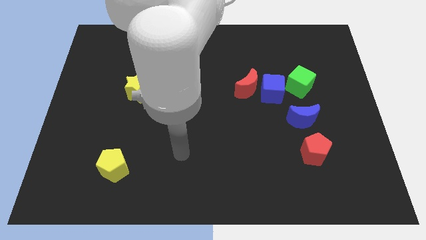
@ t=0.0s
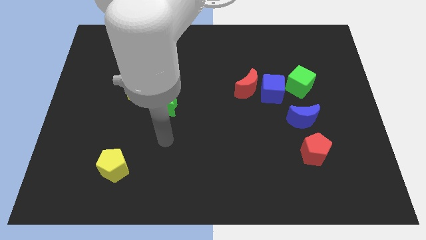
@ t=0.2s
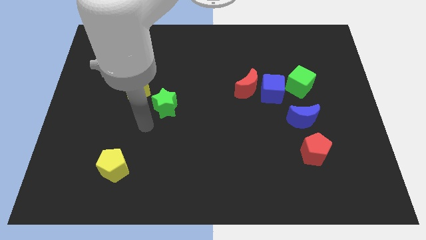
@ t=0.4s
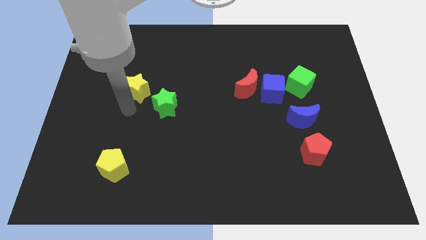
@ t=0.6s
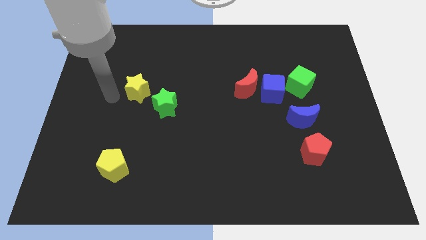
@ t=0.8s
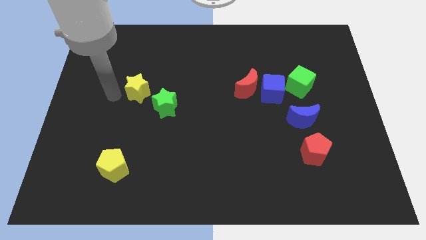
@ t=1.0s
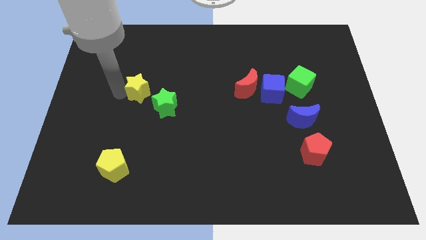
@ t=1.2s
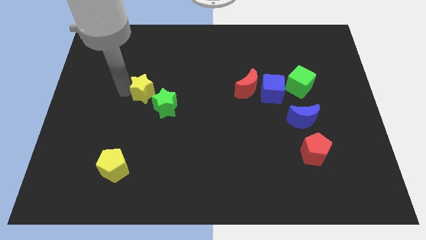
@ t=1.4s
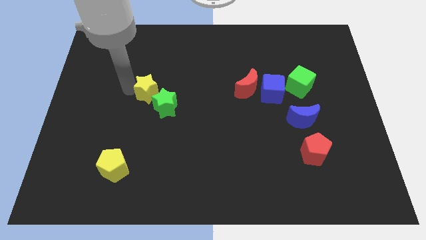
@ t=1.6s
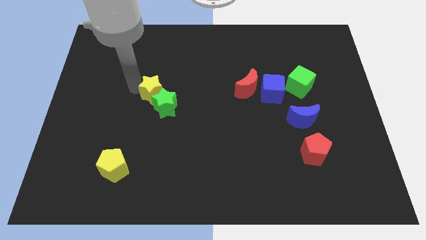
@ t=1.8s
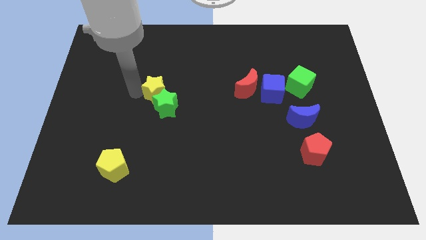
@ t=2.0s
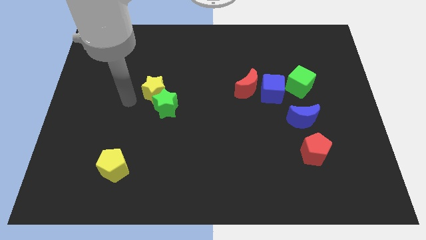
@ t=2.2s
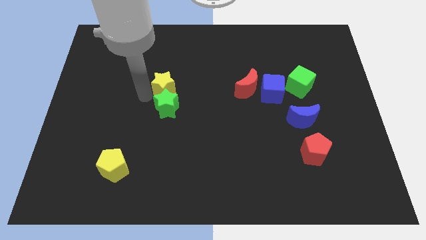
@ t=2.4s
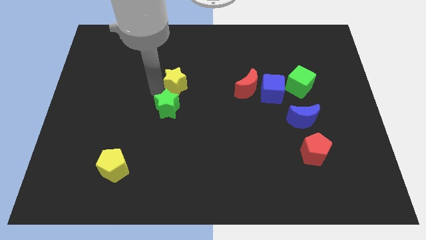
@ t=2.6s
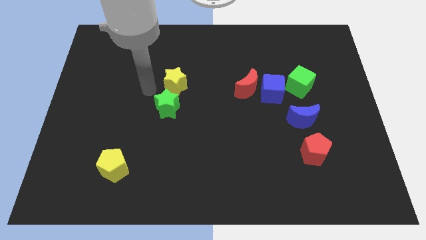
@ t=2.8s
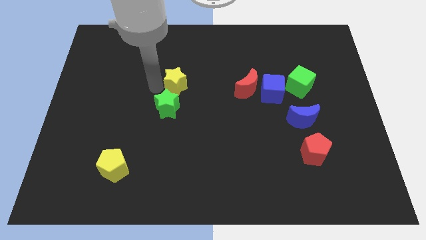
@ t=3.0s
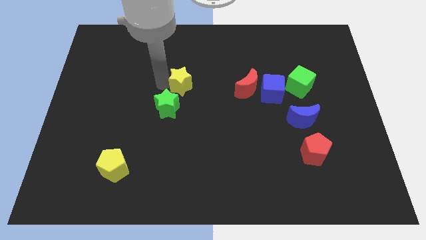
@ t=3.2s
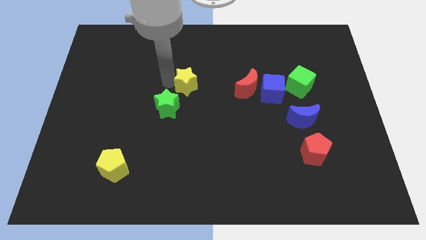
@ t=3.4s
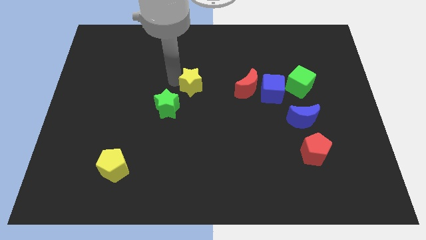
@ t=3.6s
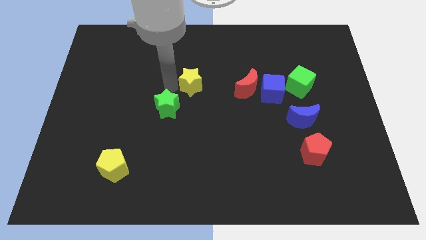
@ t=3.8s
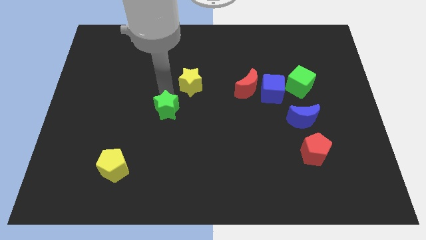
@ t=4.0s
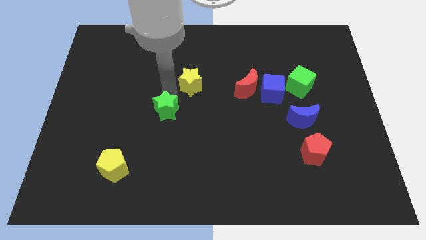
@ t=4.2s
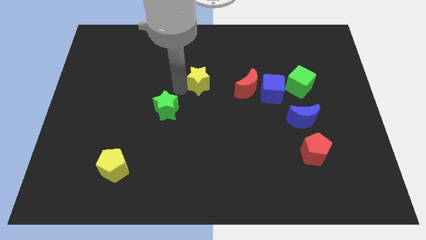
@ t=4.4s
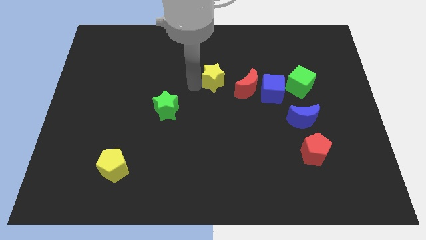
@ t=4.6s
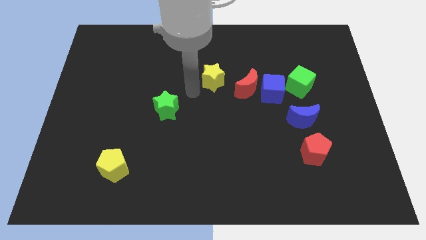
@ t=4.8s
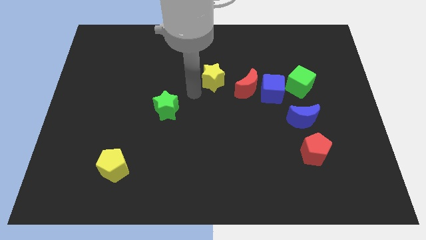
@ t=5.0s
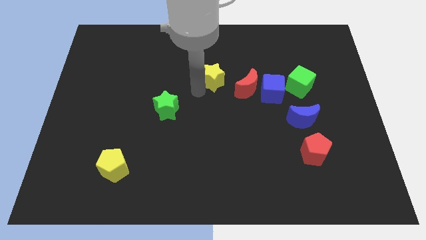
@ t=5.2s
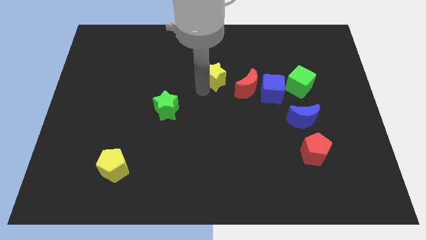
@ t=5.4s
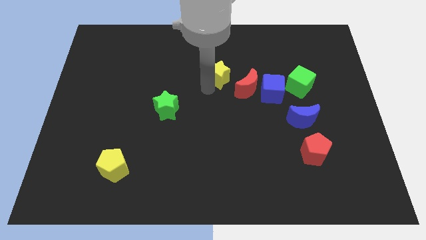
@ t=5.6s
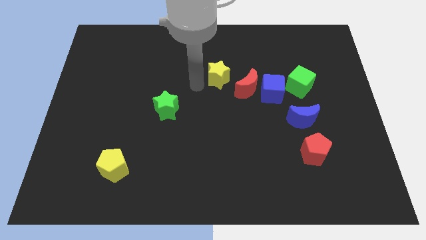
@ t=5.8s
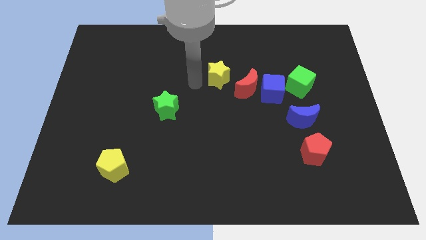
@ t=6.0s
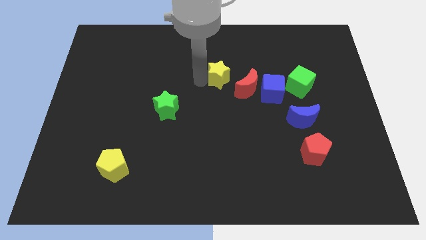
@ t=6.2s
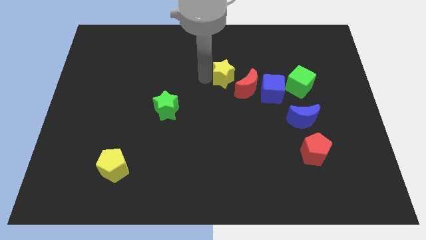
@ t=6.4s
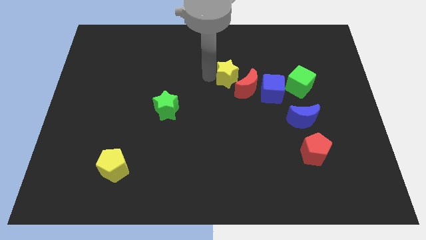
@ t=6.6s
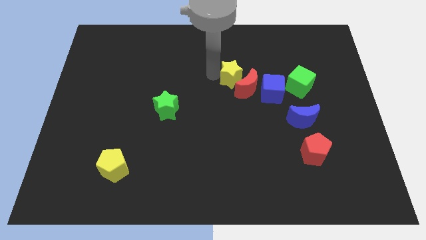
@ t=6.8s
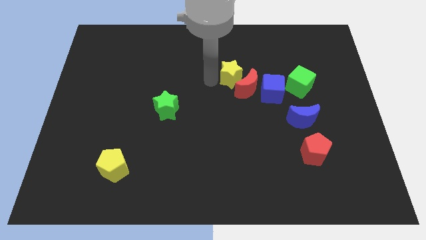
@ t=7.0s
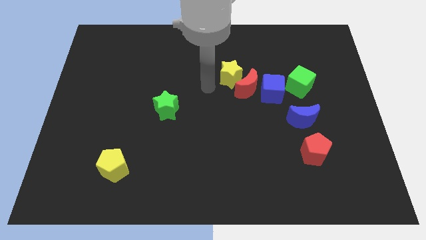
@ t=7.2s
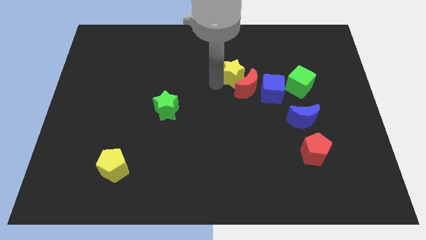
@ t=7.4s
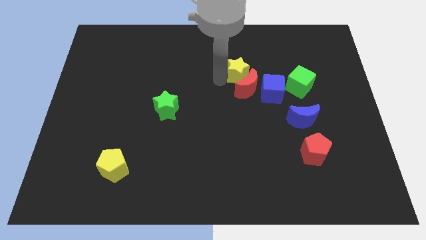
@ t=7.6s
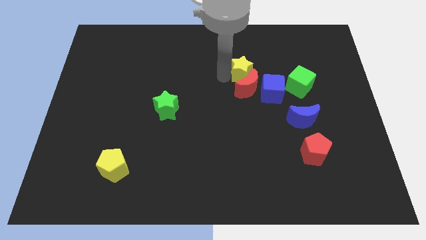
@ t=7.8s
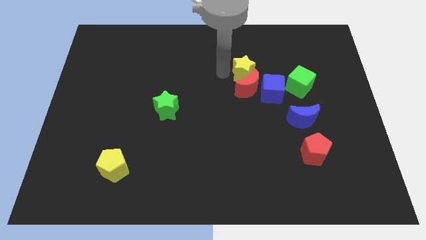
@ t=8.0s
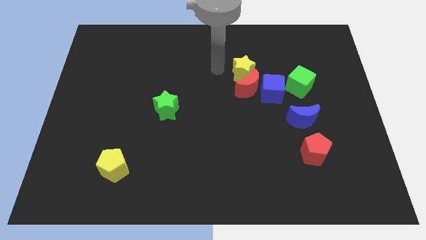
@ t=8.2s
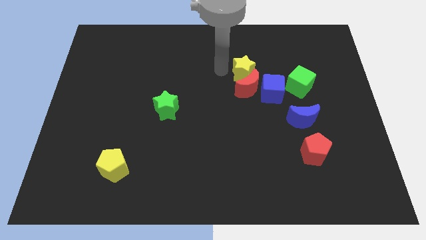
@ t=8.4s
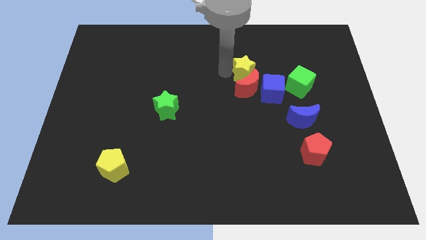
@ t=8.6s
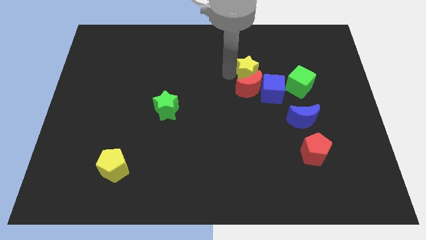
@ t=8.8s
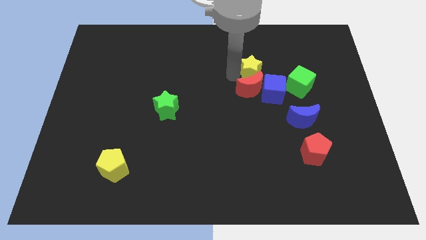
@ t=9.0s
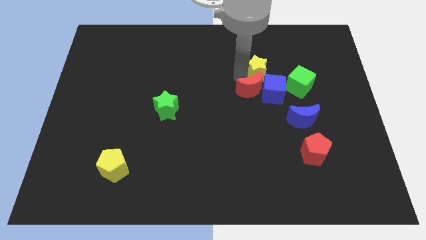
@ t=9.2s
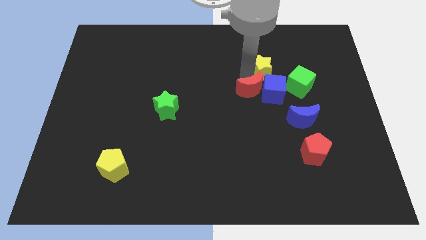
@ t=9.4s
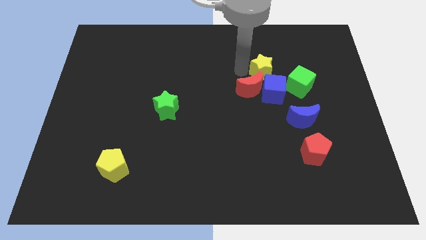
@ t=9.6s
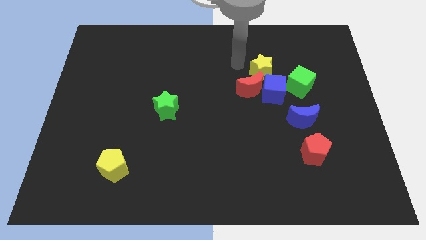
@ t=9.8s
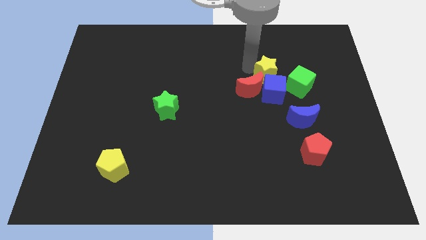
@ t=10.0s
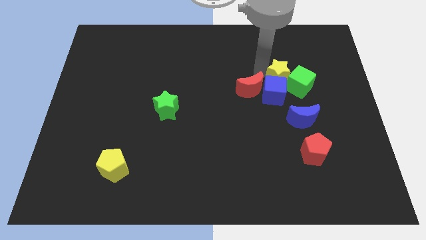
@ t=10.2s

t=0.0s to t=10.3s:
put the yellow star towards the green cube

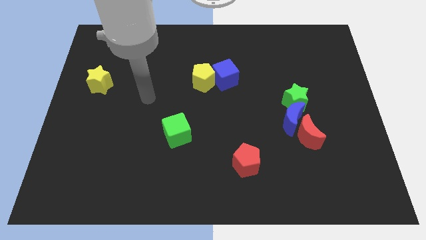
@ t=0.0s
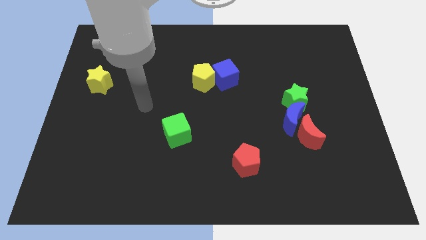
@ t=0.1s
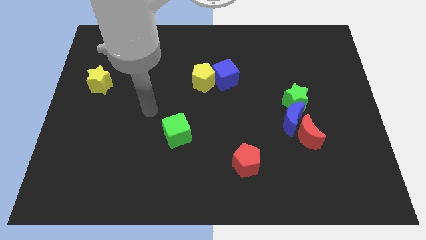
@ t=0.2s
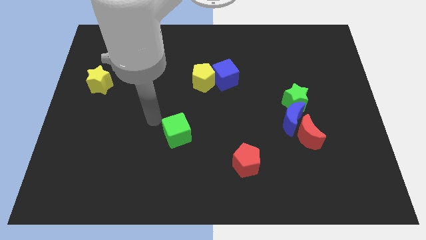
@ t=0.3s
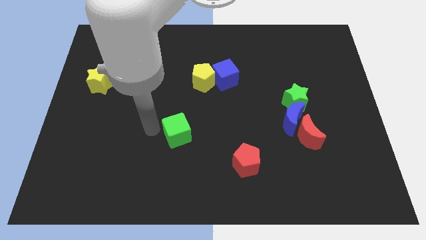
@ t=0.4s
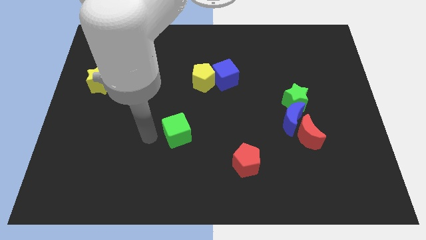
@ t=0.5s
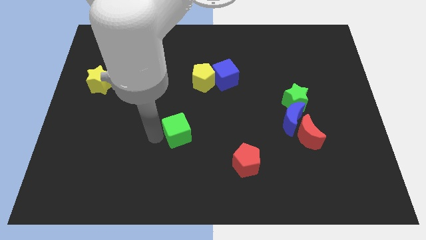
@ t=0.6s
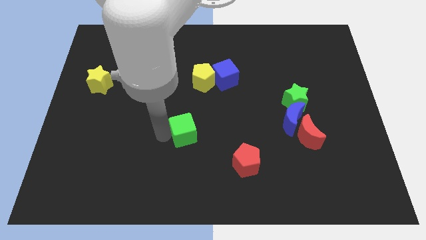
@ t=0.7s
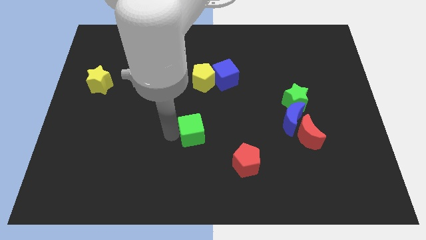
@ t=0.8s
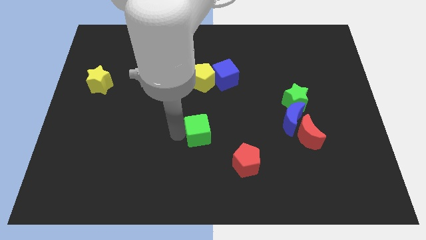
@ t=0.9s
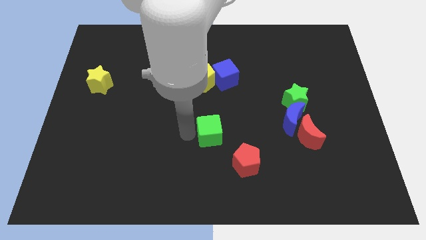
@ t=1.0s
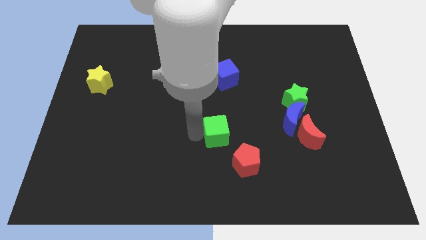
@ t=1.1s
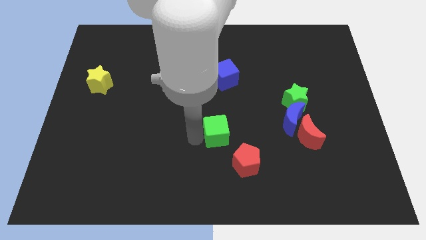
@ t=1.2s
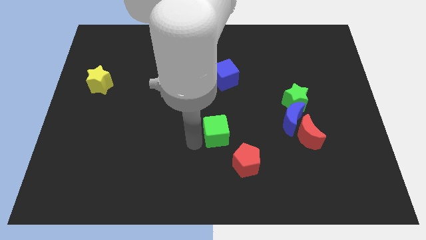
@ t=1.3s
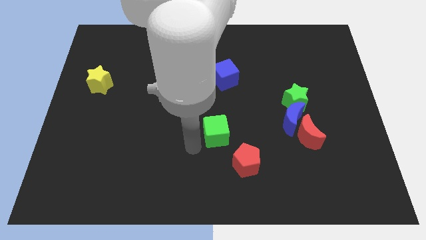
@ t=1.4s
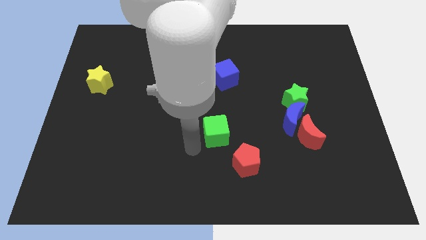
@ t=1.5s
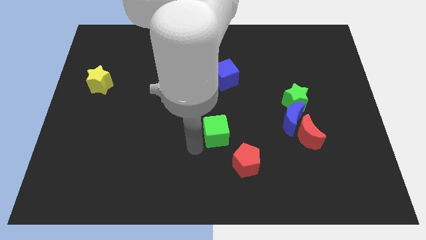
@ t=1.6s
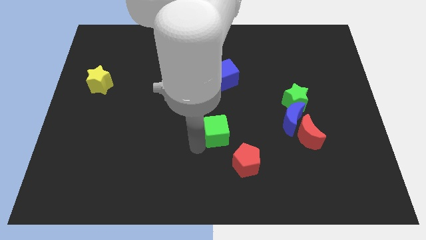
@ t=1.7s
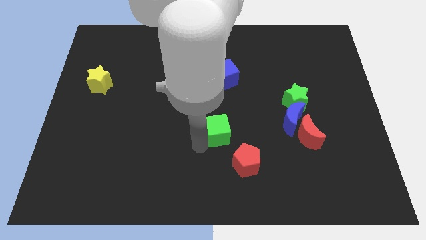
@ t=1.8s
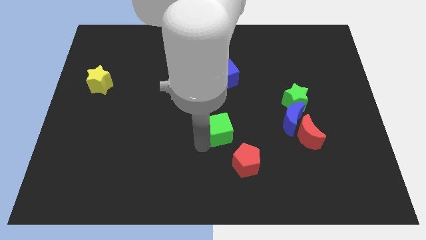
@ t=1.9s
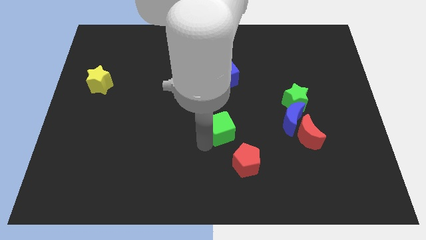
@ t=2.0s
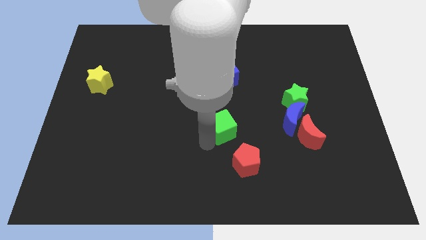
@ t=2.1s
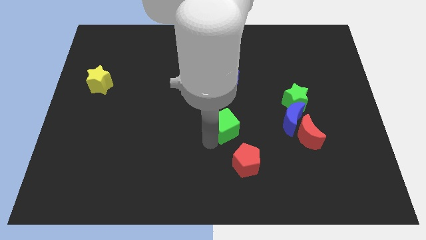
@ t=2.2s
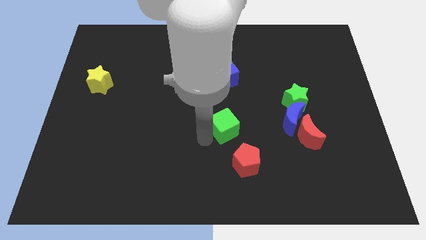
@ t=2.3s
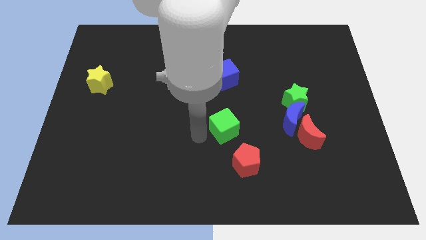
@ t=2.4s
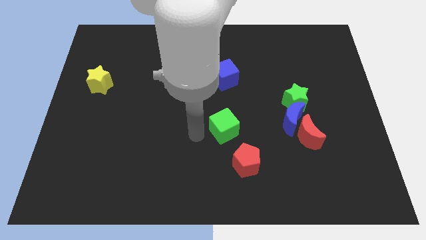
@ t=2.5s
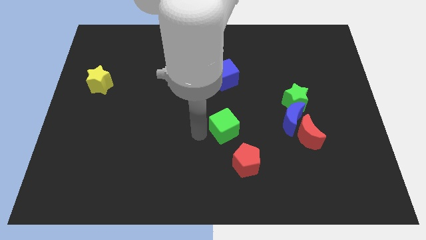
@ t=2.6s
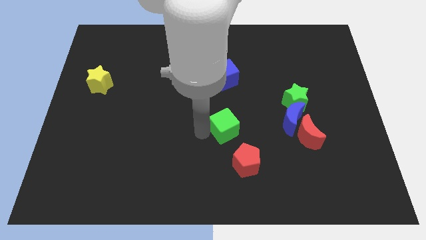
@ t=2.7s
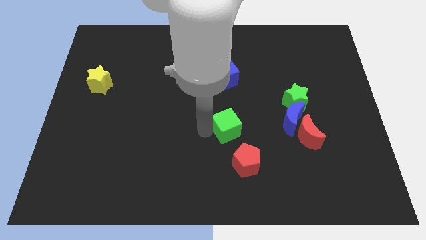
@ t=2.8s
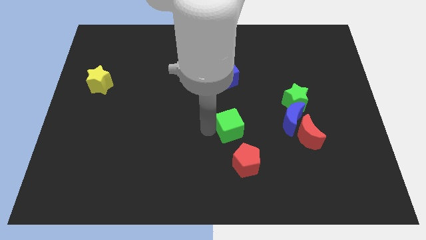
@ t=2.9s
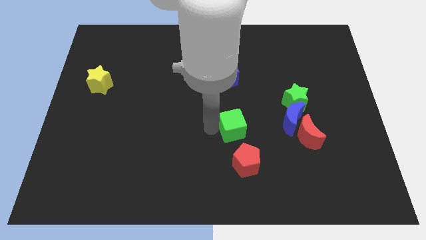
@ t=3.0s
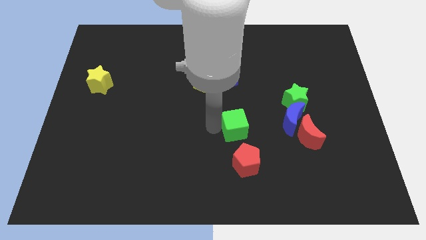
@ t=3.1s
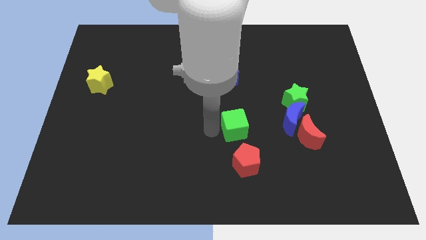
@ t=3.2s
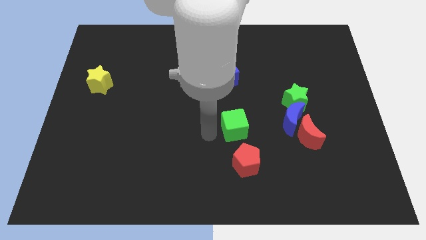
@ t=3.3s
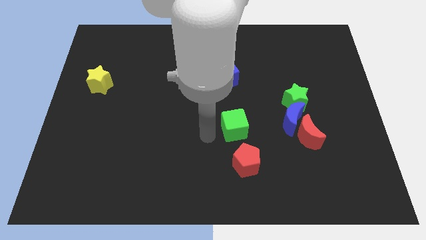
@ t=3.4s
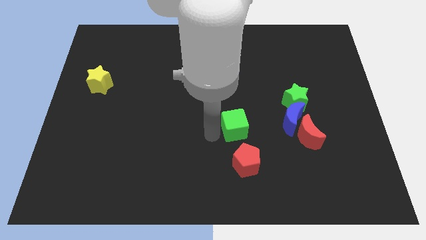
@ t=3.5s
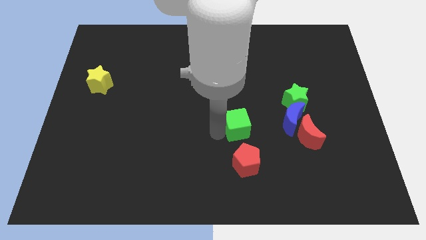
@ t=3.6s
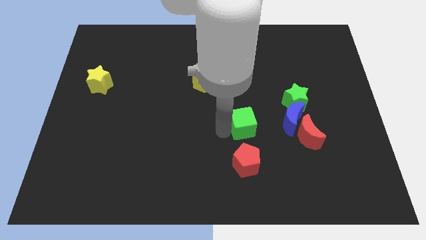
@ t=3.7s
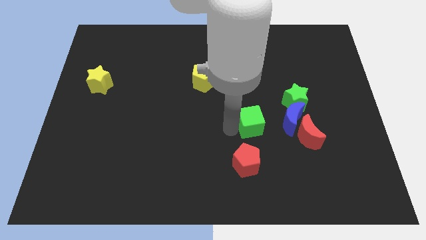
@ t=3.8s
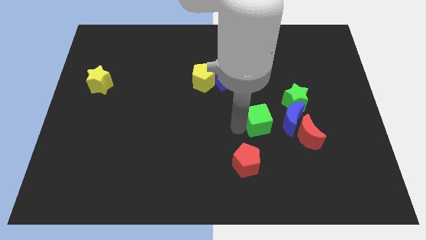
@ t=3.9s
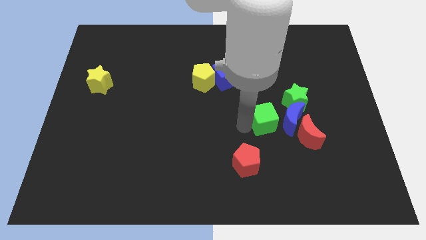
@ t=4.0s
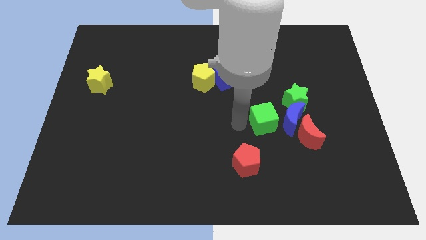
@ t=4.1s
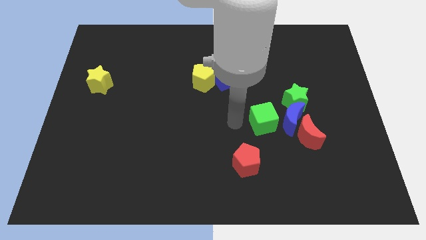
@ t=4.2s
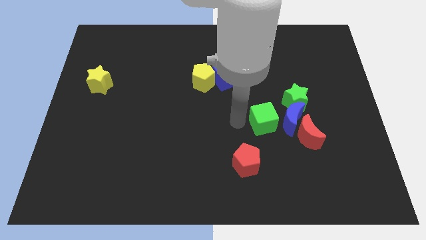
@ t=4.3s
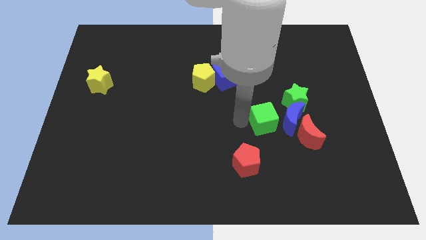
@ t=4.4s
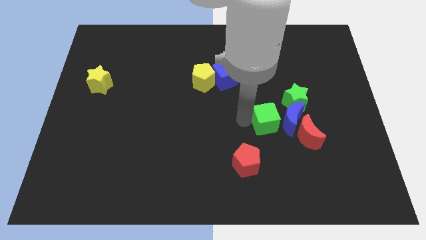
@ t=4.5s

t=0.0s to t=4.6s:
slide the green cube towards the blue moon
